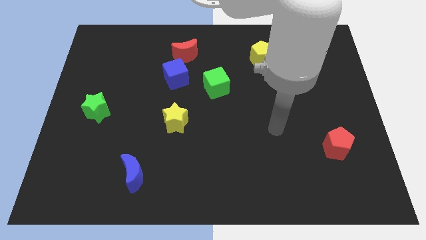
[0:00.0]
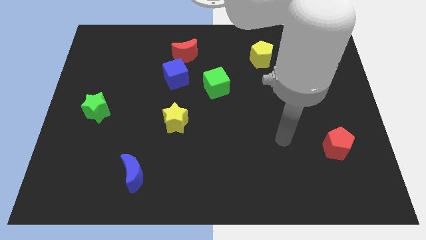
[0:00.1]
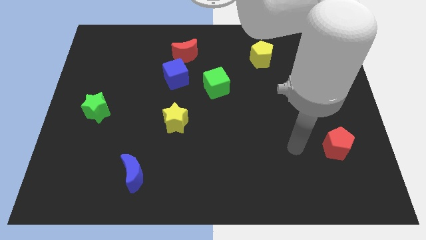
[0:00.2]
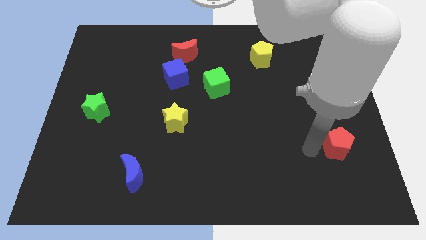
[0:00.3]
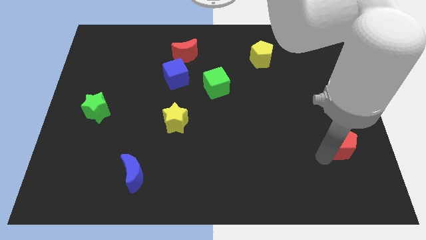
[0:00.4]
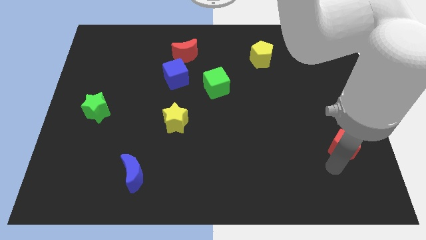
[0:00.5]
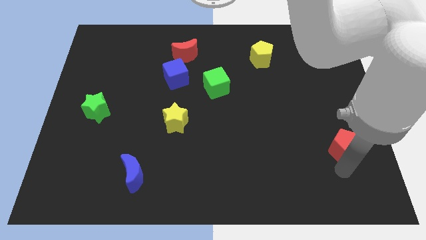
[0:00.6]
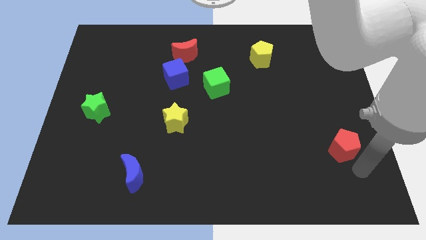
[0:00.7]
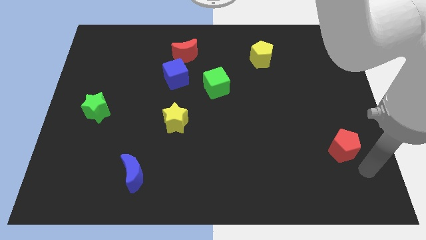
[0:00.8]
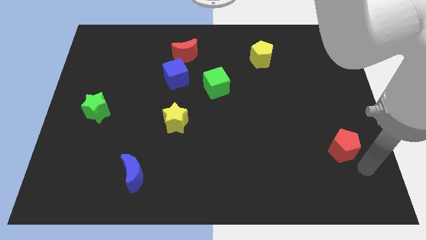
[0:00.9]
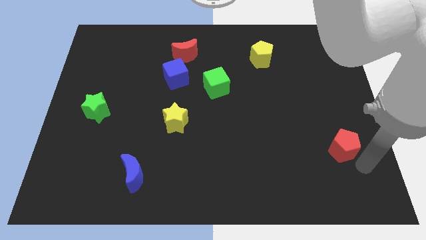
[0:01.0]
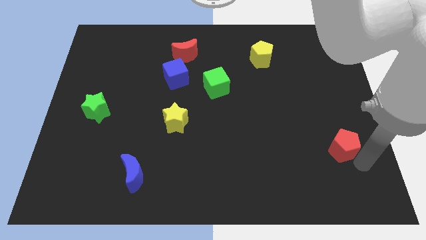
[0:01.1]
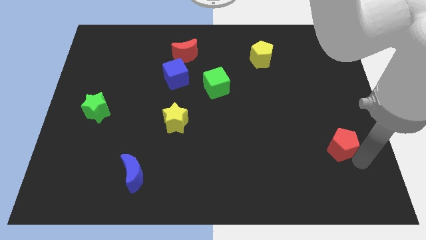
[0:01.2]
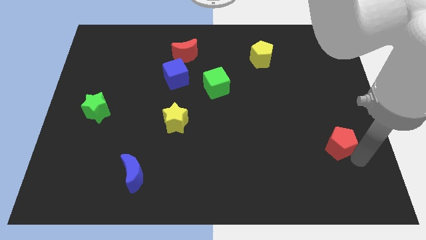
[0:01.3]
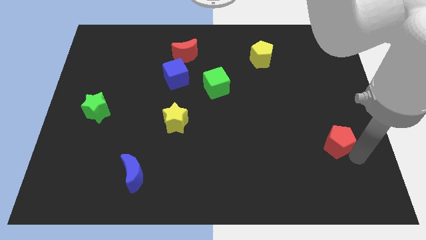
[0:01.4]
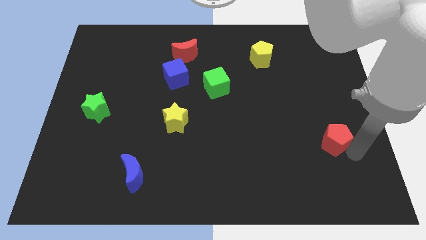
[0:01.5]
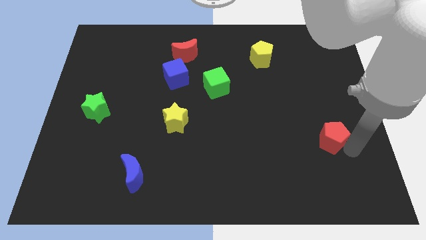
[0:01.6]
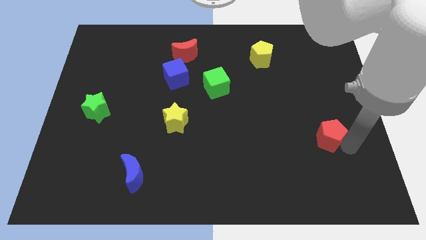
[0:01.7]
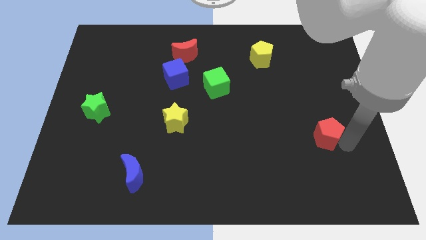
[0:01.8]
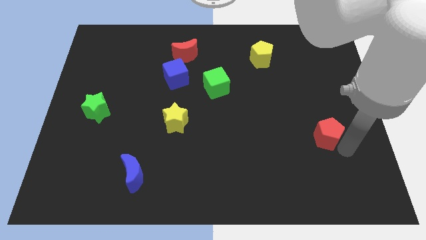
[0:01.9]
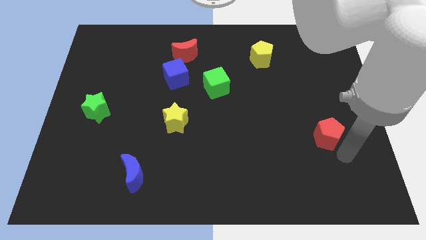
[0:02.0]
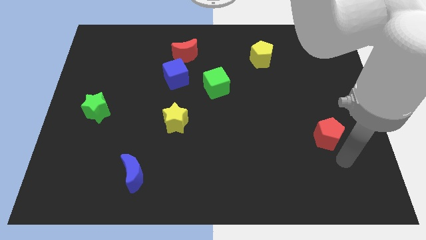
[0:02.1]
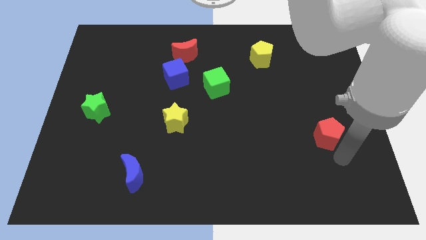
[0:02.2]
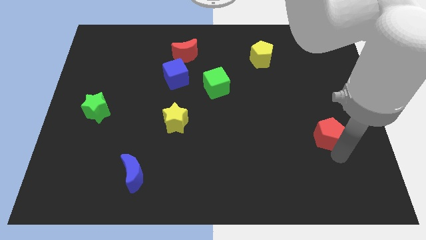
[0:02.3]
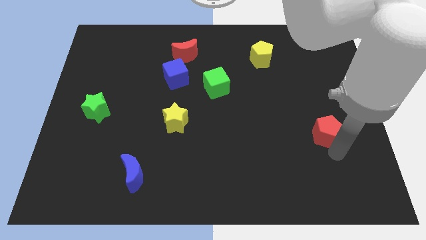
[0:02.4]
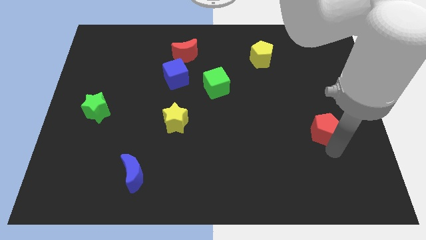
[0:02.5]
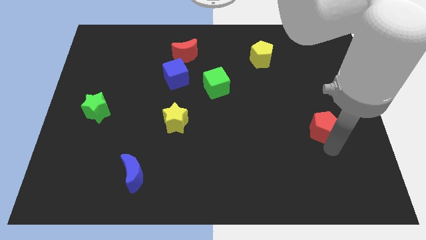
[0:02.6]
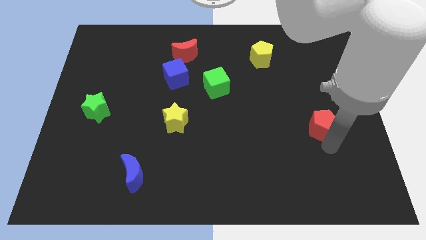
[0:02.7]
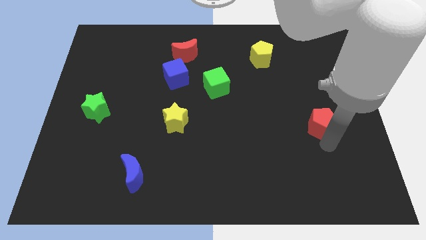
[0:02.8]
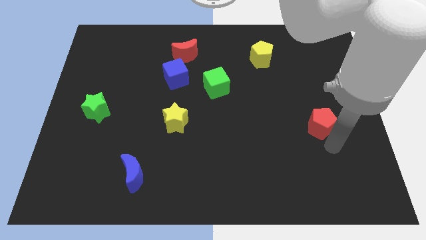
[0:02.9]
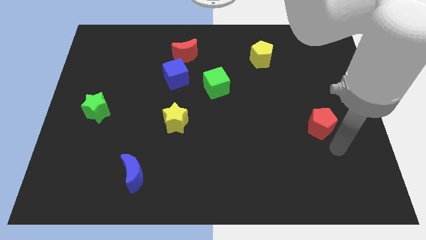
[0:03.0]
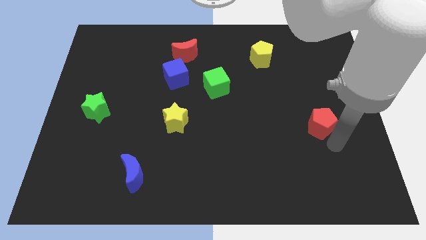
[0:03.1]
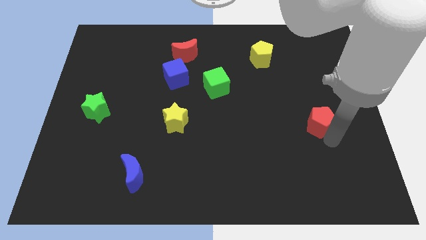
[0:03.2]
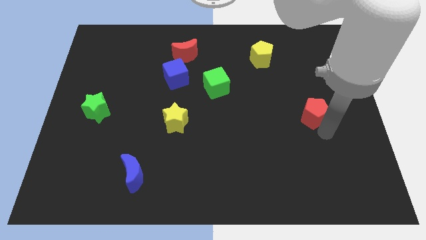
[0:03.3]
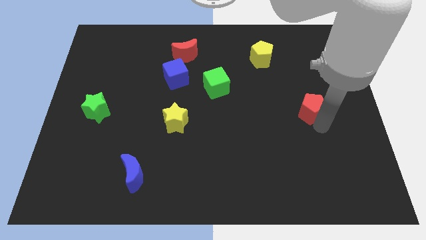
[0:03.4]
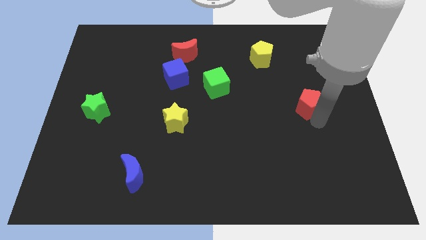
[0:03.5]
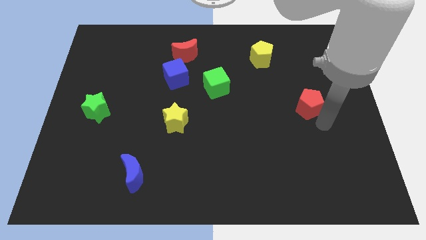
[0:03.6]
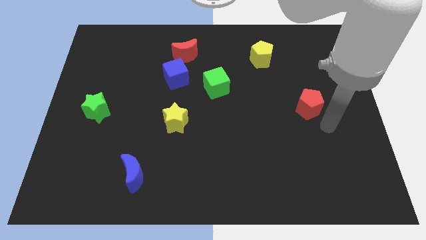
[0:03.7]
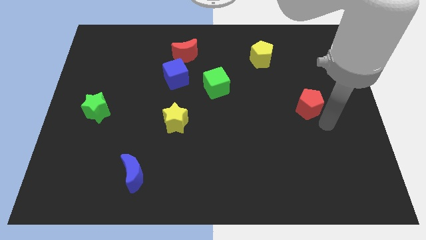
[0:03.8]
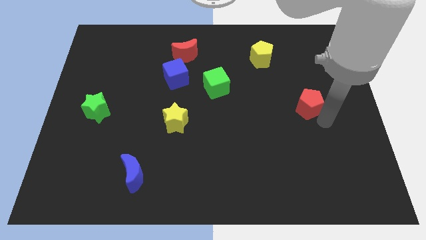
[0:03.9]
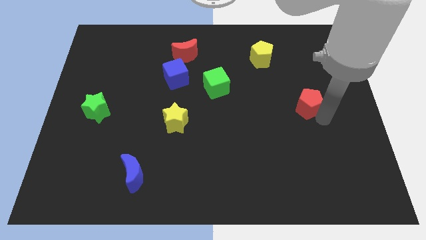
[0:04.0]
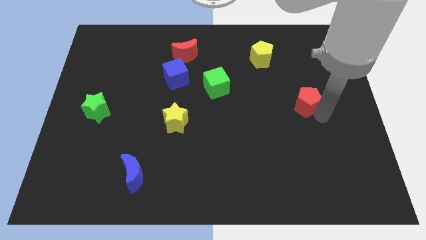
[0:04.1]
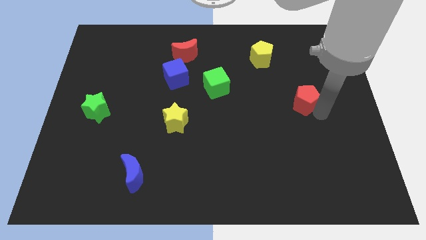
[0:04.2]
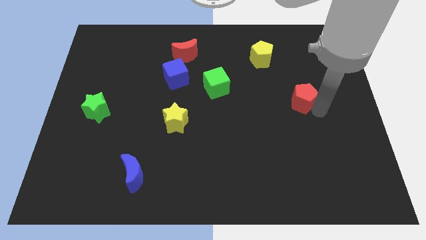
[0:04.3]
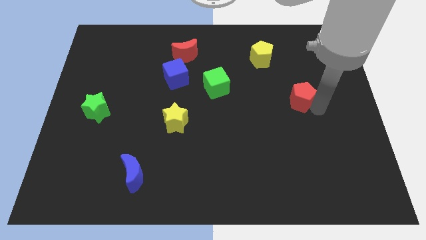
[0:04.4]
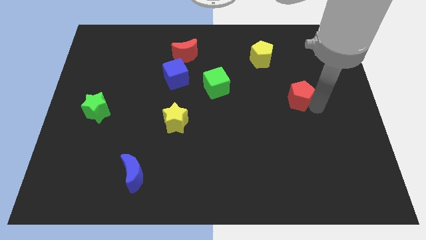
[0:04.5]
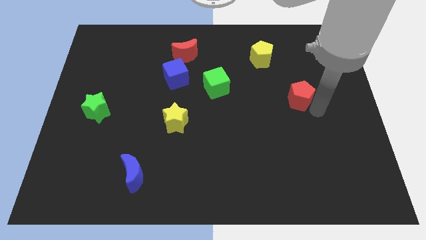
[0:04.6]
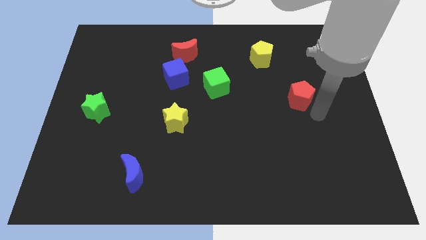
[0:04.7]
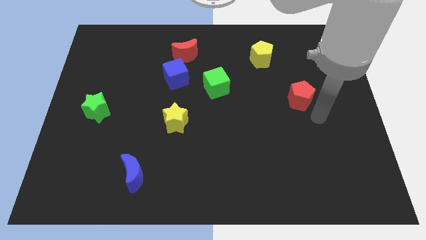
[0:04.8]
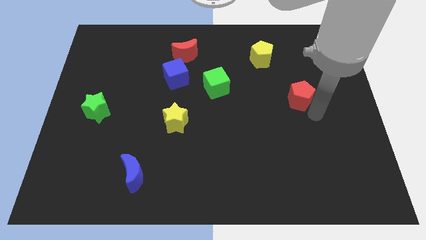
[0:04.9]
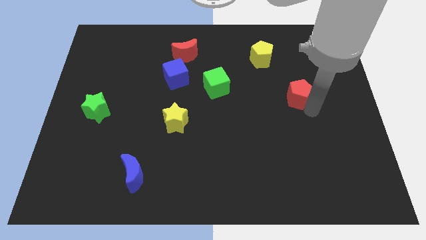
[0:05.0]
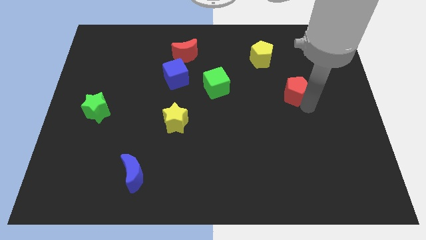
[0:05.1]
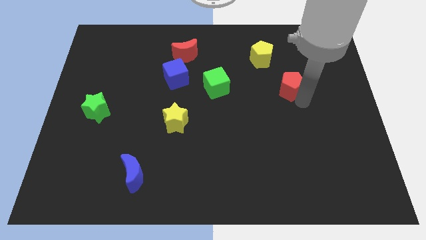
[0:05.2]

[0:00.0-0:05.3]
push the red pentagon diagonally down and to the right of the yellow pentagon
